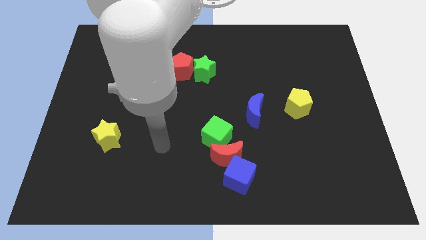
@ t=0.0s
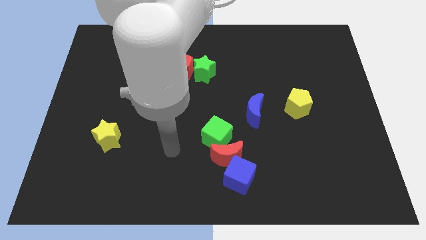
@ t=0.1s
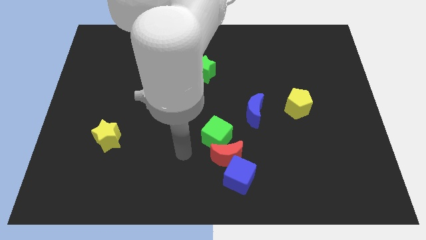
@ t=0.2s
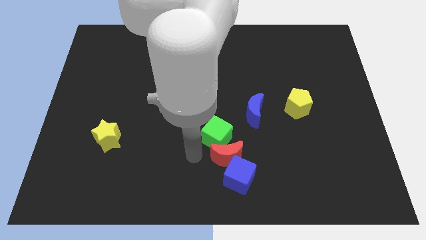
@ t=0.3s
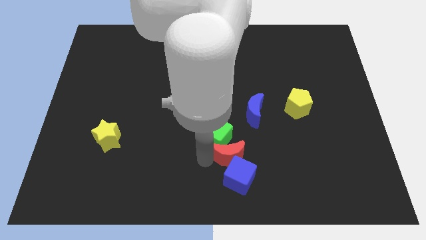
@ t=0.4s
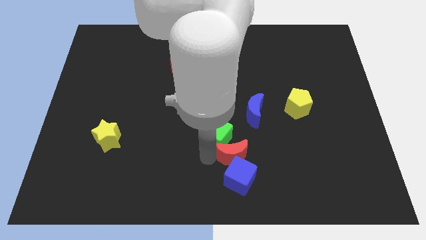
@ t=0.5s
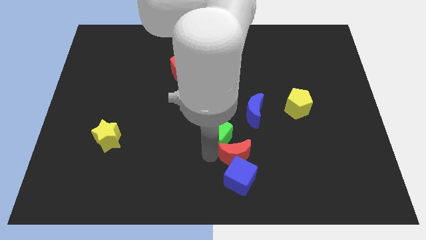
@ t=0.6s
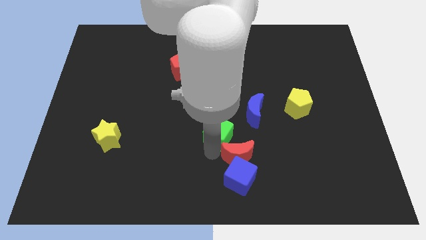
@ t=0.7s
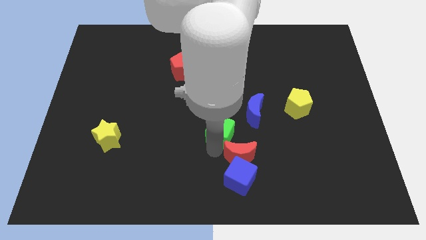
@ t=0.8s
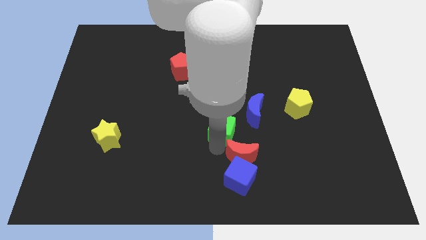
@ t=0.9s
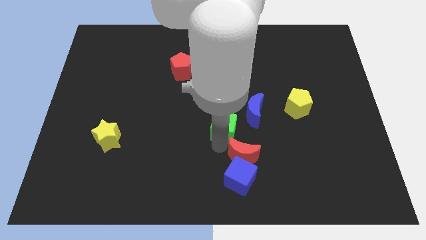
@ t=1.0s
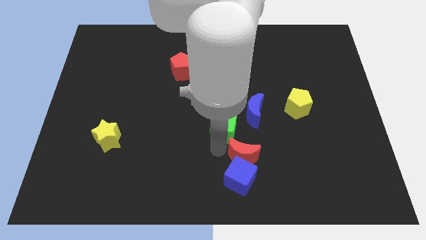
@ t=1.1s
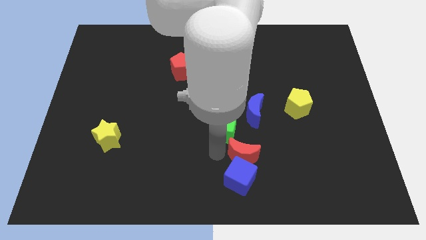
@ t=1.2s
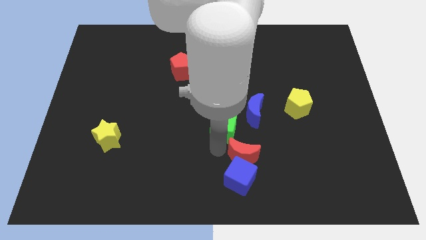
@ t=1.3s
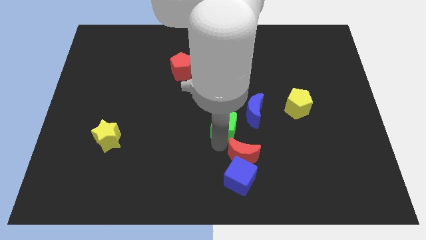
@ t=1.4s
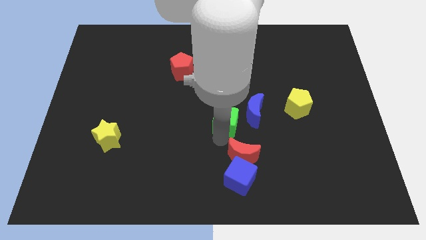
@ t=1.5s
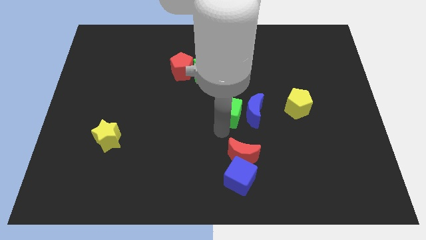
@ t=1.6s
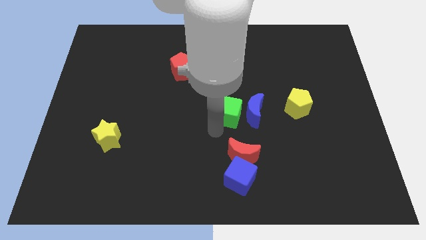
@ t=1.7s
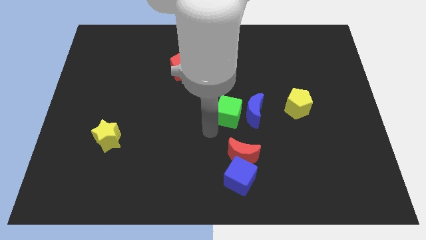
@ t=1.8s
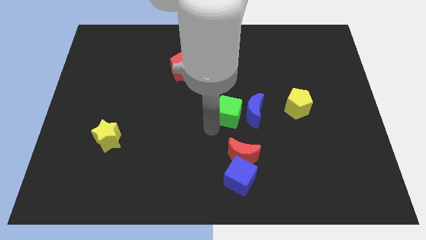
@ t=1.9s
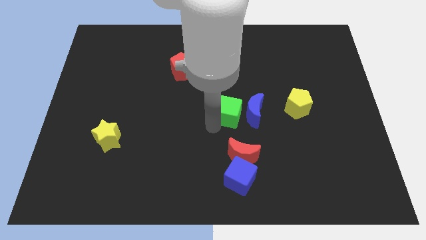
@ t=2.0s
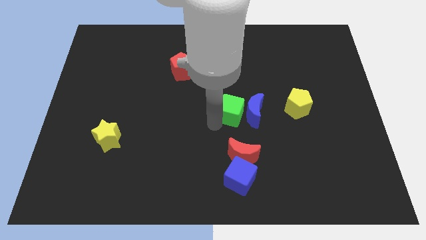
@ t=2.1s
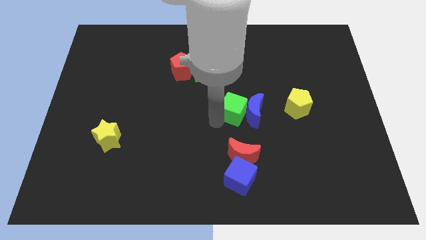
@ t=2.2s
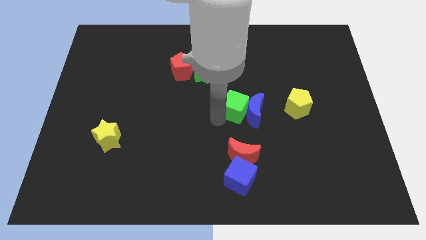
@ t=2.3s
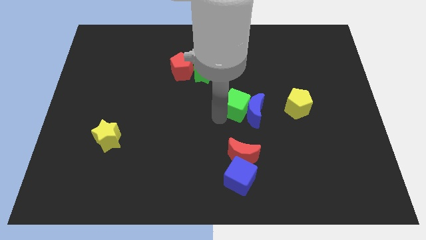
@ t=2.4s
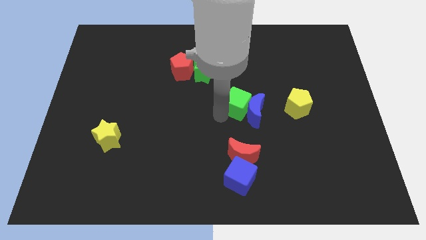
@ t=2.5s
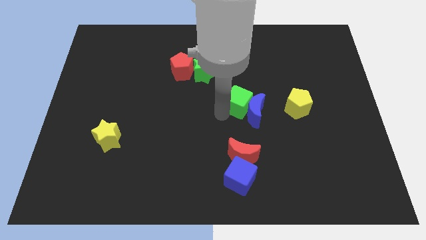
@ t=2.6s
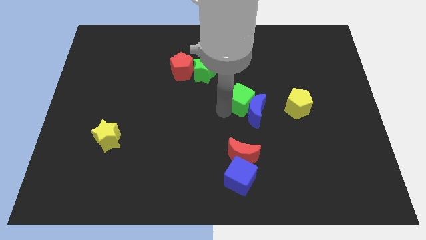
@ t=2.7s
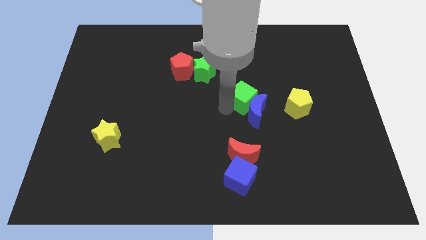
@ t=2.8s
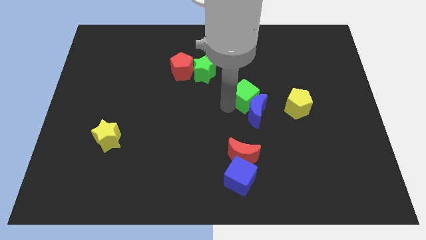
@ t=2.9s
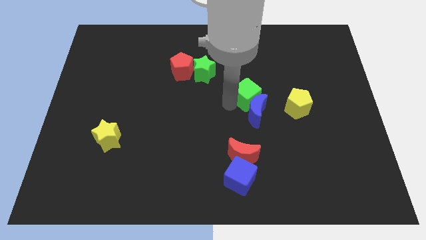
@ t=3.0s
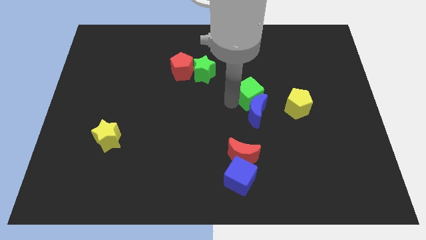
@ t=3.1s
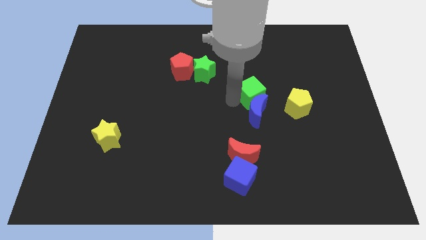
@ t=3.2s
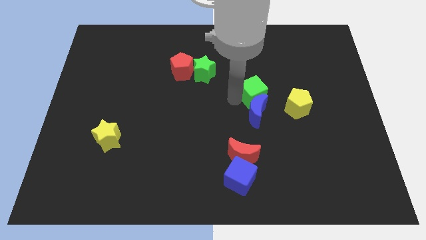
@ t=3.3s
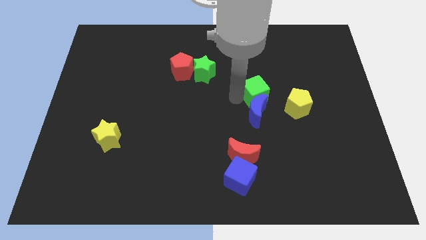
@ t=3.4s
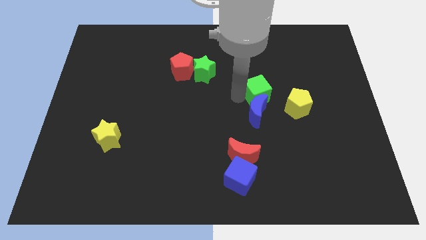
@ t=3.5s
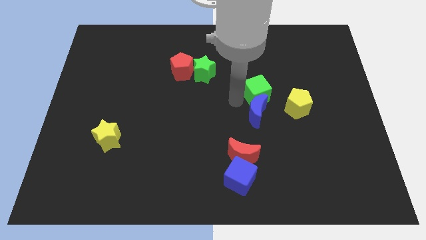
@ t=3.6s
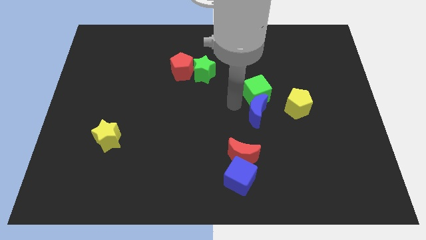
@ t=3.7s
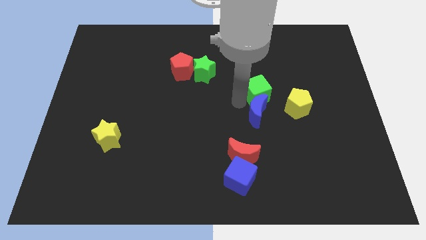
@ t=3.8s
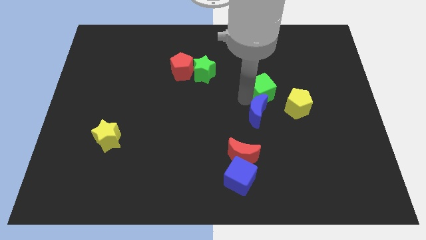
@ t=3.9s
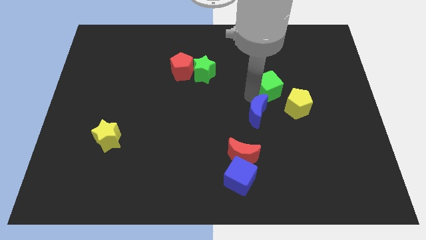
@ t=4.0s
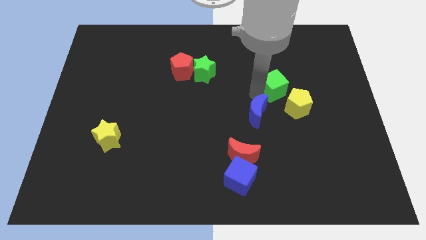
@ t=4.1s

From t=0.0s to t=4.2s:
move the green cube to the top of the yellow pentagon

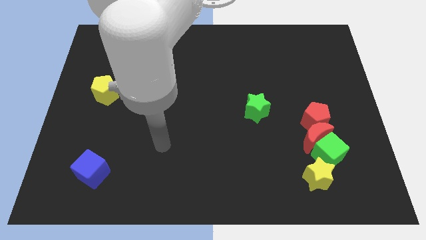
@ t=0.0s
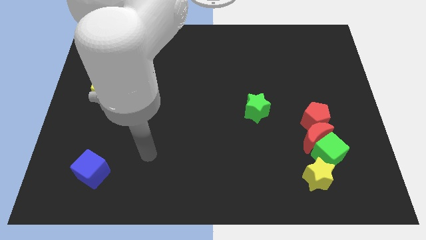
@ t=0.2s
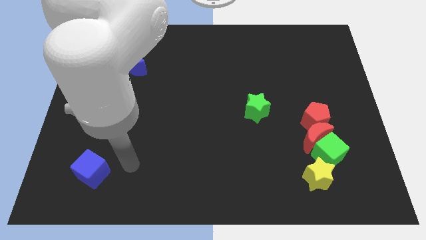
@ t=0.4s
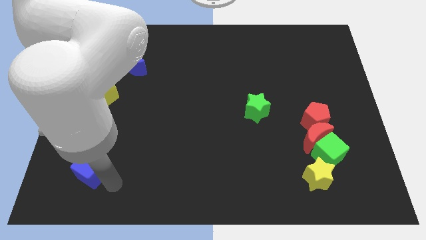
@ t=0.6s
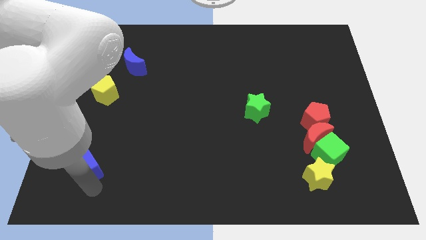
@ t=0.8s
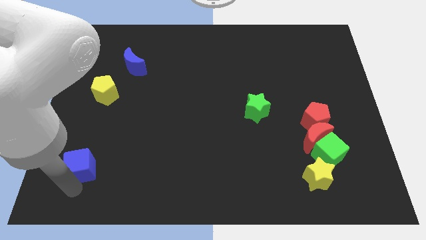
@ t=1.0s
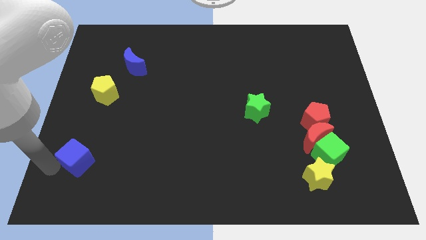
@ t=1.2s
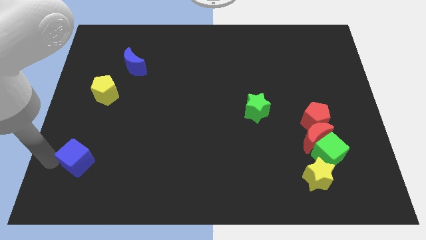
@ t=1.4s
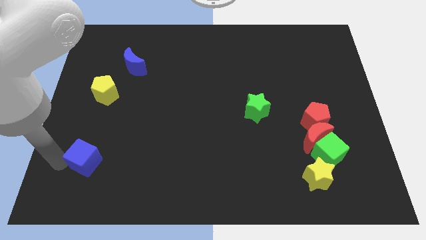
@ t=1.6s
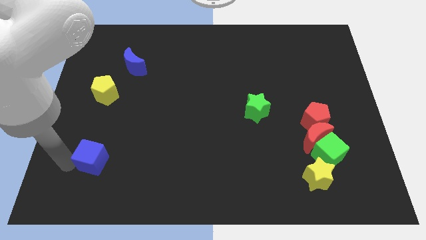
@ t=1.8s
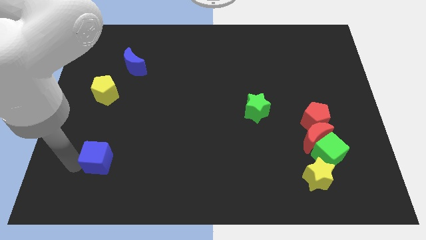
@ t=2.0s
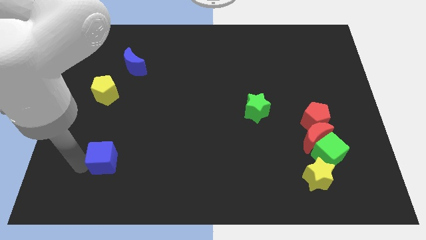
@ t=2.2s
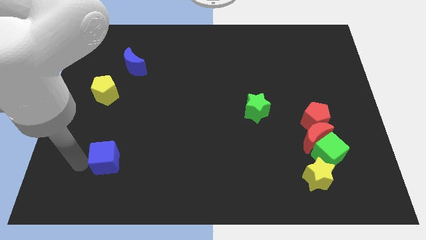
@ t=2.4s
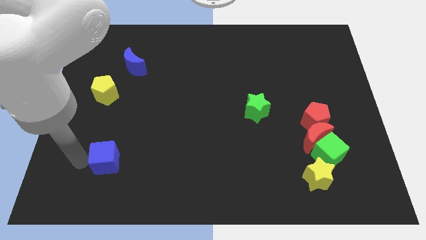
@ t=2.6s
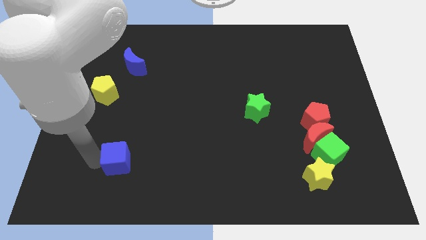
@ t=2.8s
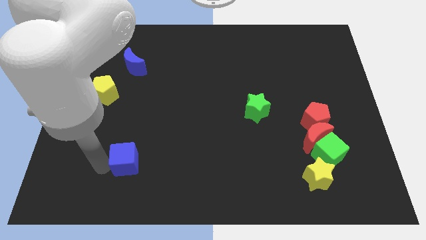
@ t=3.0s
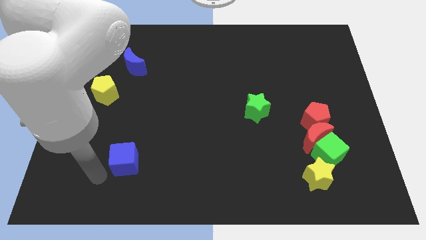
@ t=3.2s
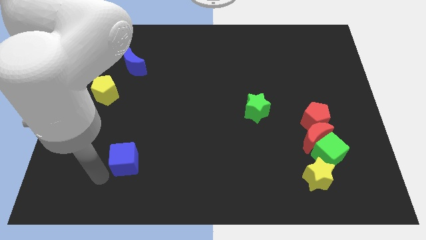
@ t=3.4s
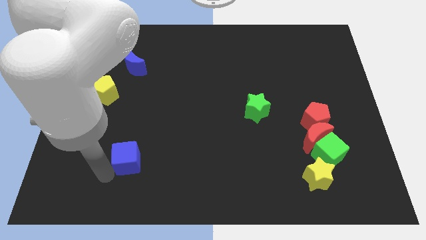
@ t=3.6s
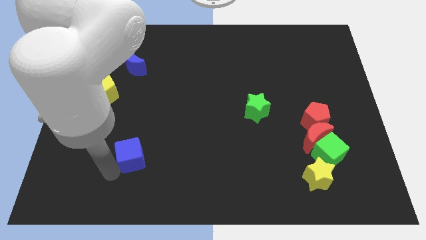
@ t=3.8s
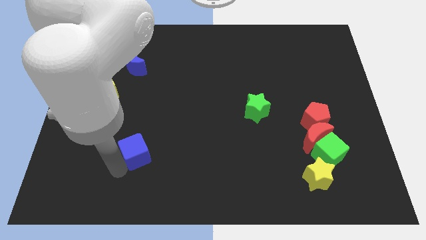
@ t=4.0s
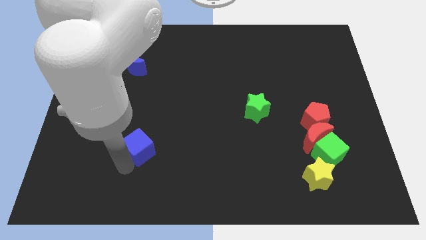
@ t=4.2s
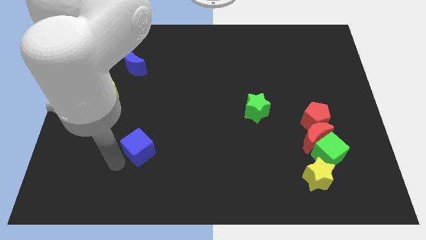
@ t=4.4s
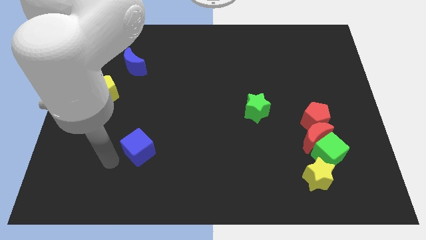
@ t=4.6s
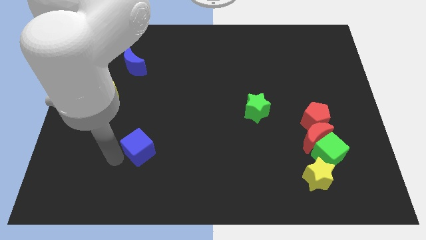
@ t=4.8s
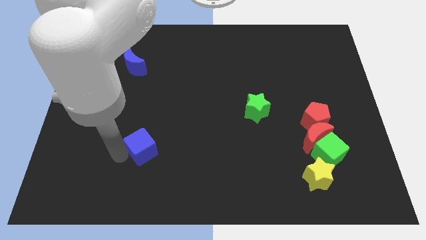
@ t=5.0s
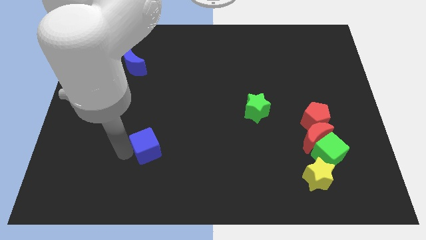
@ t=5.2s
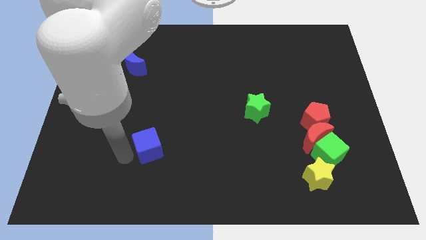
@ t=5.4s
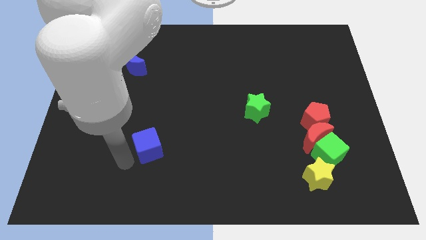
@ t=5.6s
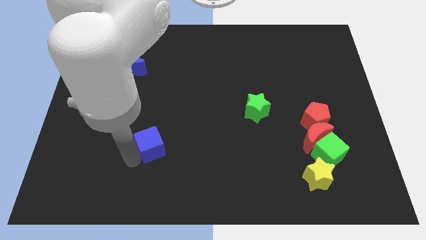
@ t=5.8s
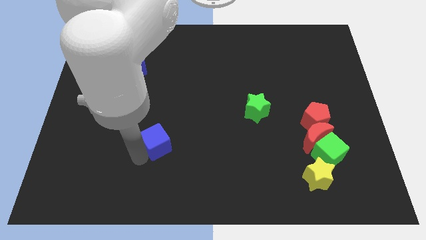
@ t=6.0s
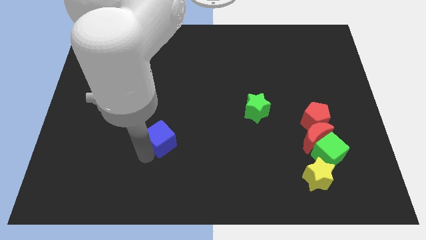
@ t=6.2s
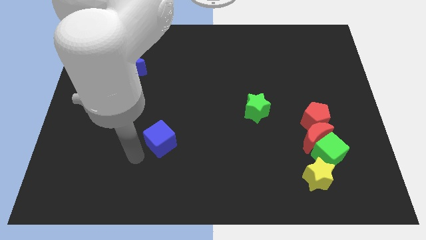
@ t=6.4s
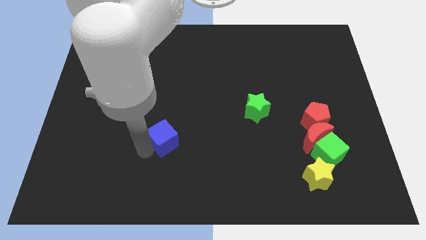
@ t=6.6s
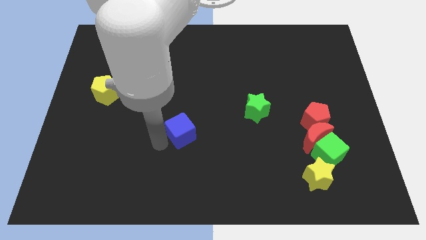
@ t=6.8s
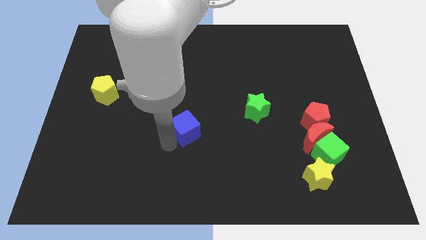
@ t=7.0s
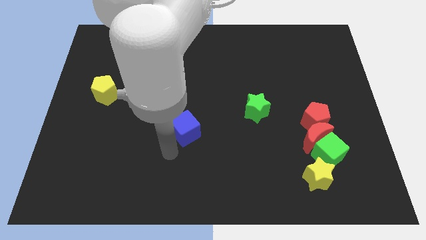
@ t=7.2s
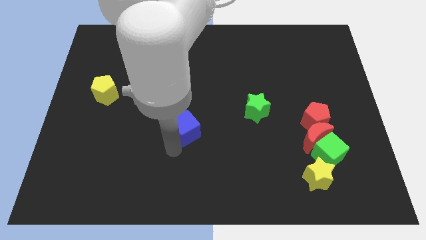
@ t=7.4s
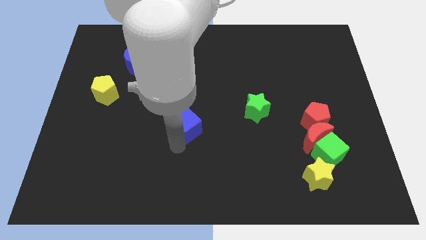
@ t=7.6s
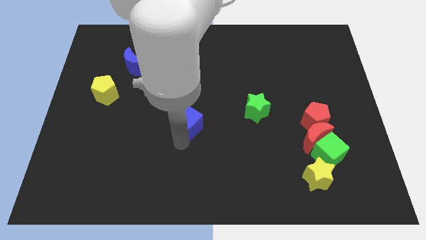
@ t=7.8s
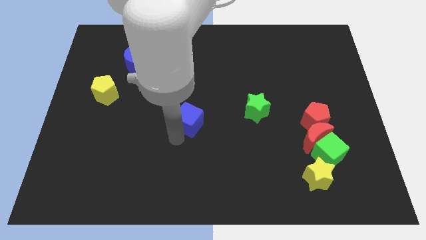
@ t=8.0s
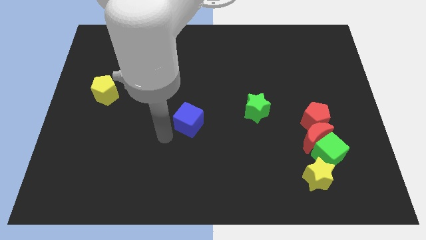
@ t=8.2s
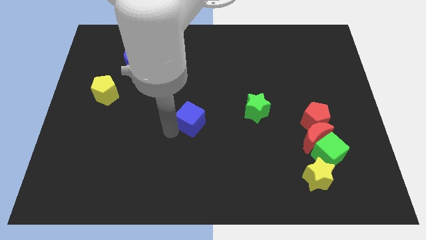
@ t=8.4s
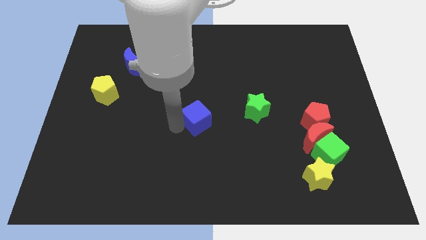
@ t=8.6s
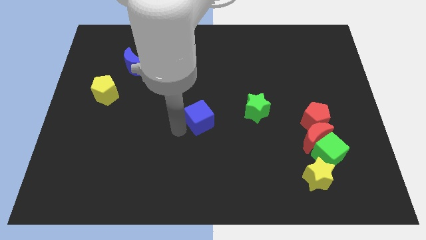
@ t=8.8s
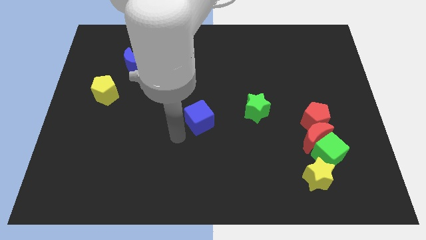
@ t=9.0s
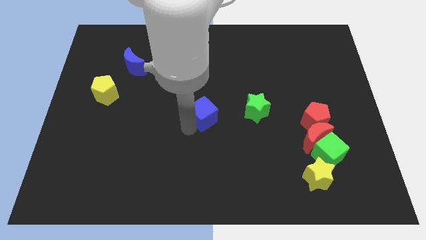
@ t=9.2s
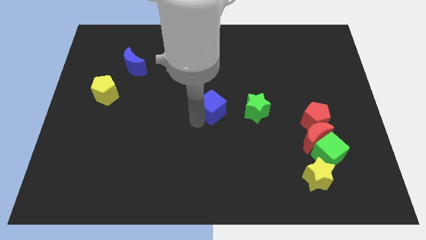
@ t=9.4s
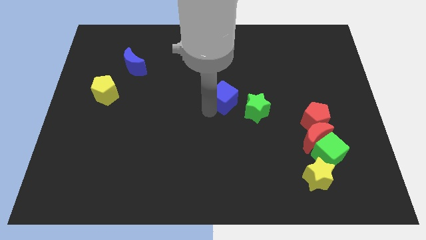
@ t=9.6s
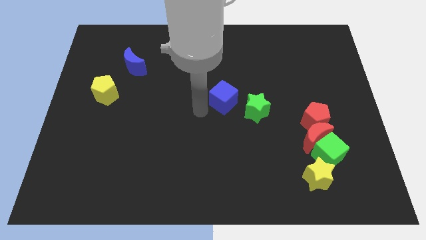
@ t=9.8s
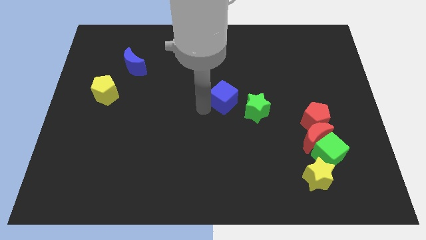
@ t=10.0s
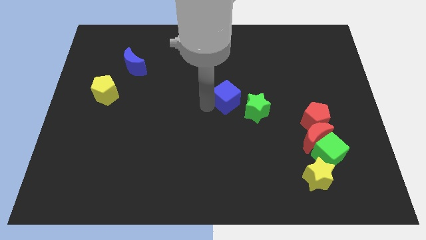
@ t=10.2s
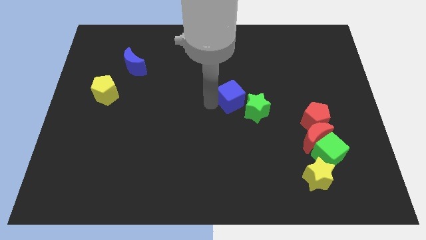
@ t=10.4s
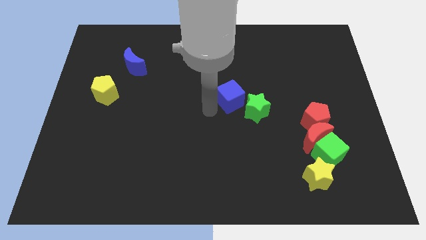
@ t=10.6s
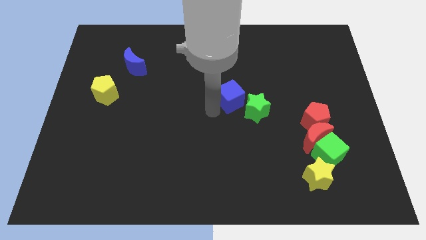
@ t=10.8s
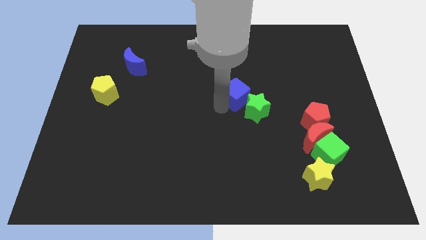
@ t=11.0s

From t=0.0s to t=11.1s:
push the blue cube to the top side of the green star
